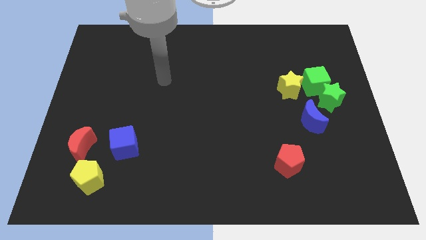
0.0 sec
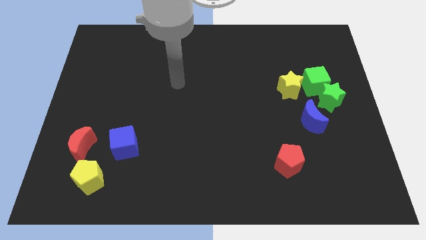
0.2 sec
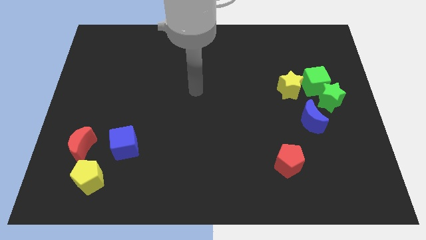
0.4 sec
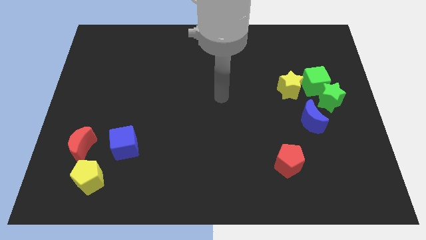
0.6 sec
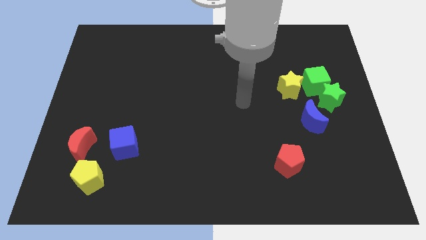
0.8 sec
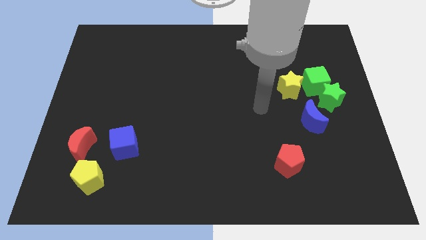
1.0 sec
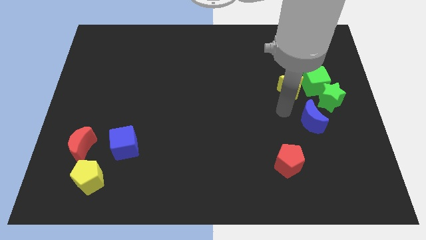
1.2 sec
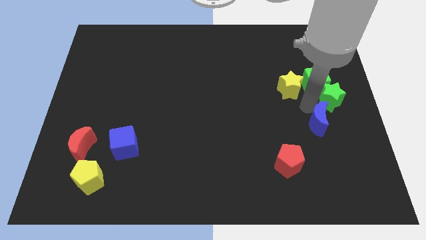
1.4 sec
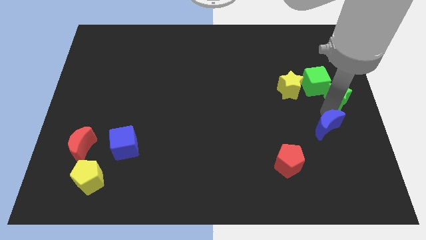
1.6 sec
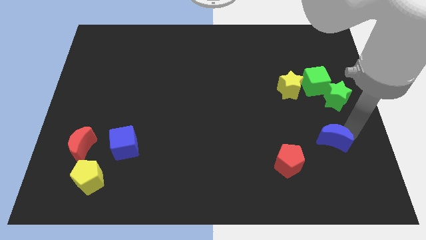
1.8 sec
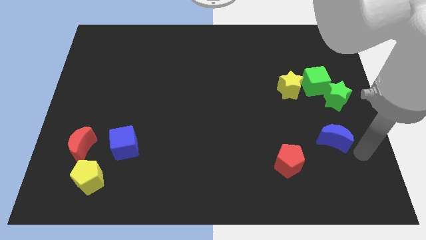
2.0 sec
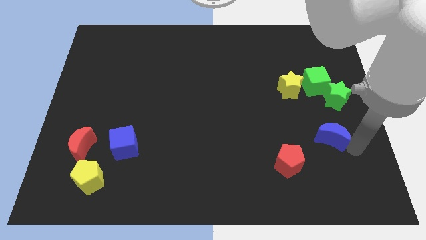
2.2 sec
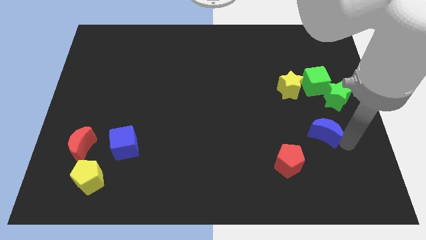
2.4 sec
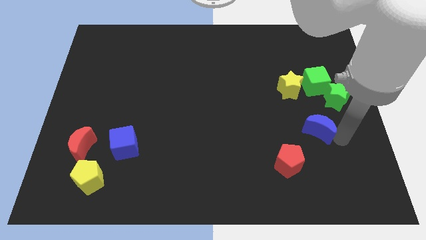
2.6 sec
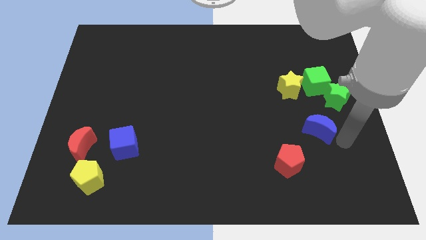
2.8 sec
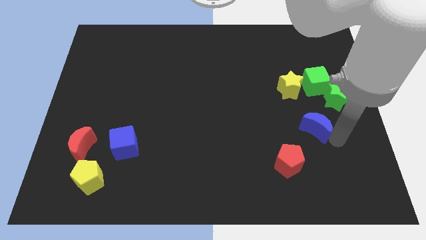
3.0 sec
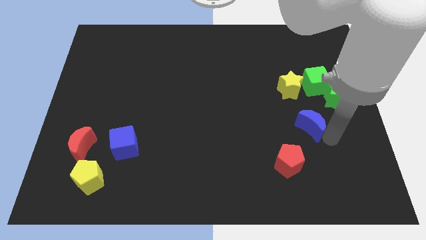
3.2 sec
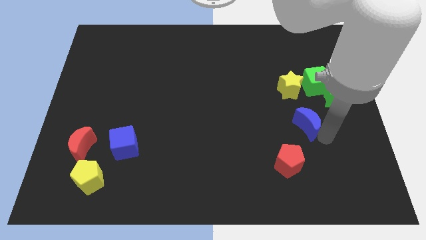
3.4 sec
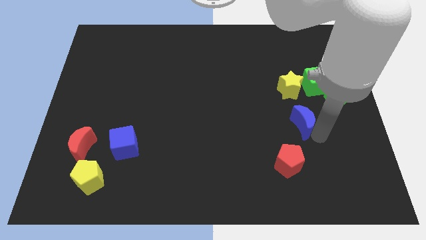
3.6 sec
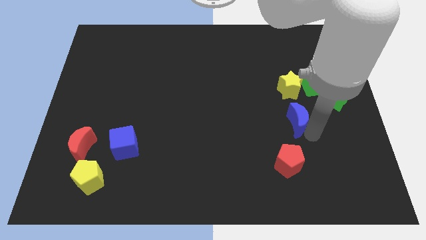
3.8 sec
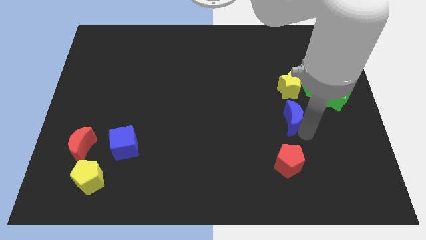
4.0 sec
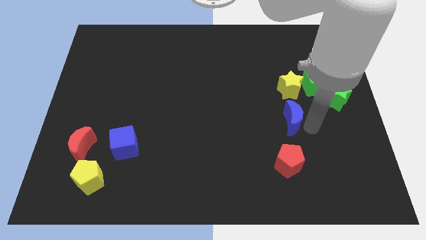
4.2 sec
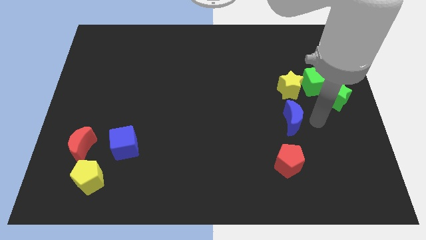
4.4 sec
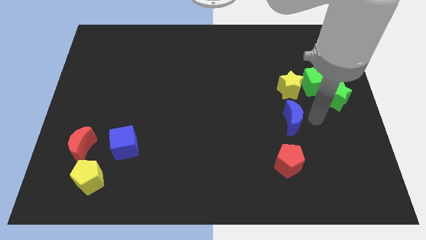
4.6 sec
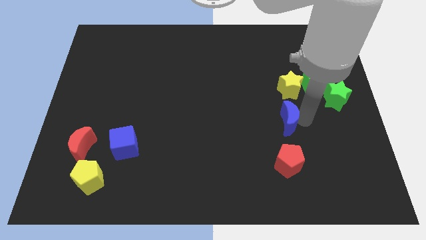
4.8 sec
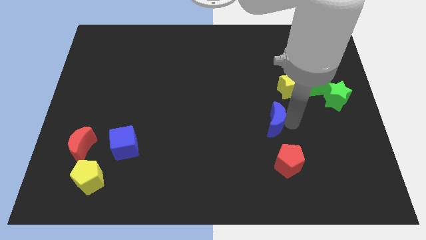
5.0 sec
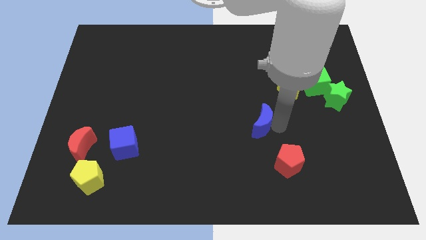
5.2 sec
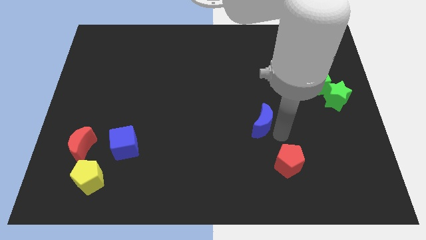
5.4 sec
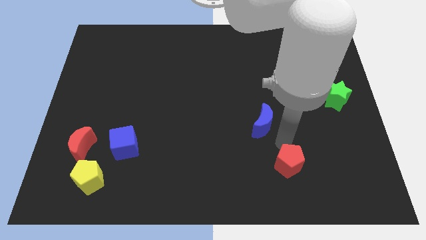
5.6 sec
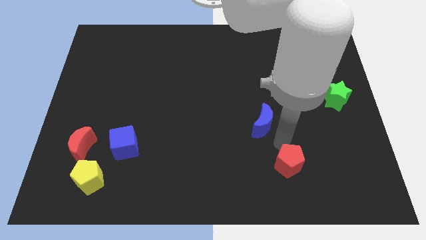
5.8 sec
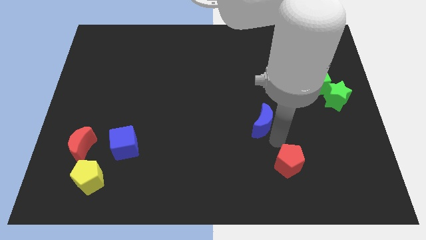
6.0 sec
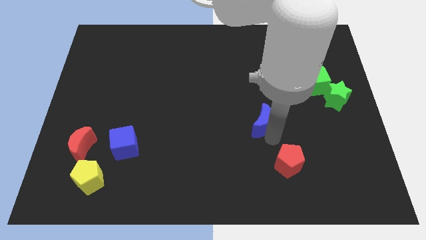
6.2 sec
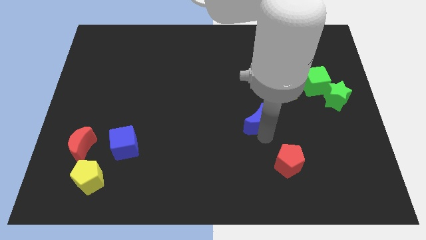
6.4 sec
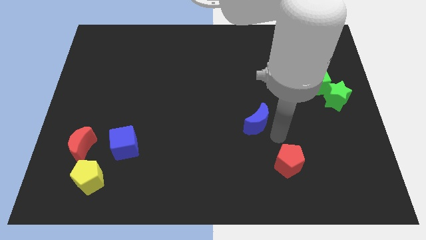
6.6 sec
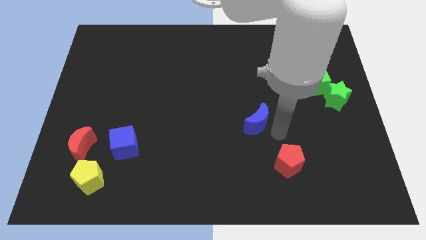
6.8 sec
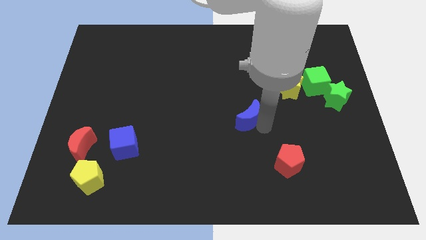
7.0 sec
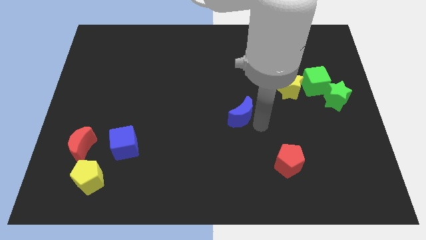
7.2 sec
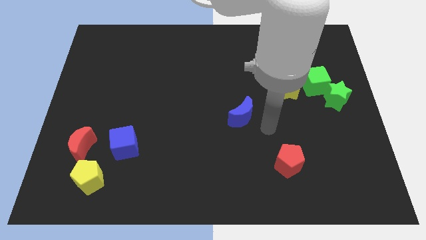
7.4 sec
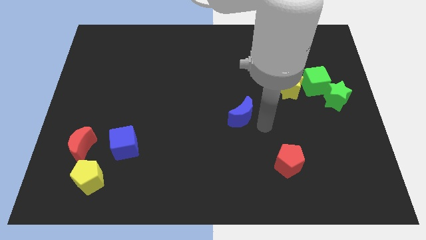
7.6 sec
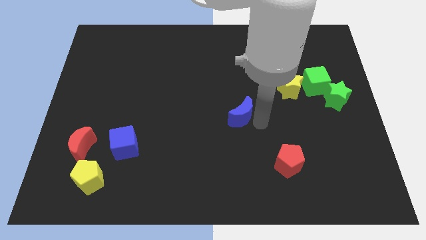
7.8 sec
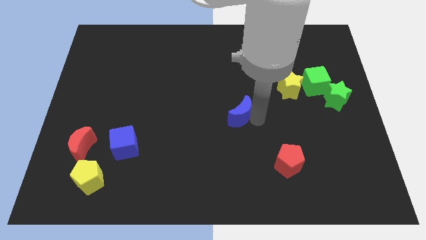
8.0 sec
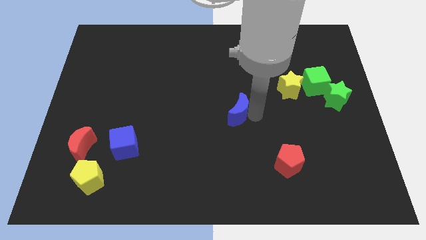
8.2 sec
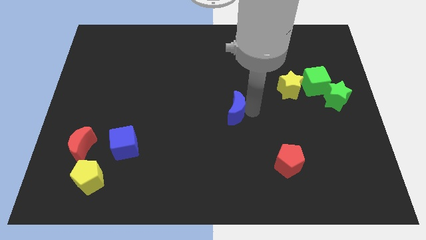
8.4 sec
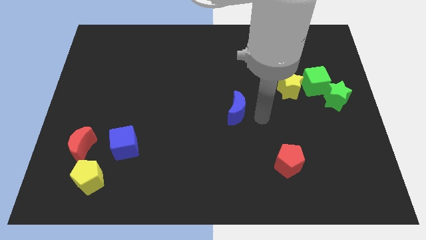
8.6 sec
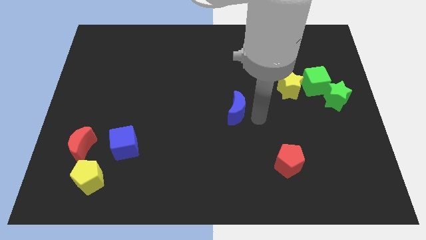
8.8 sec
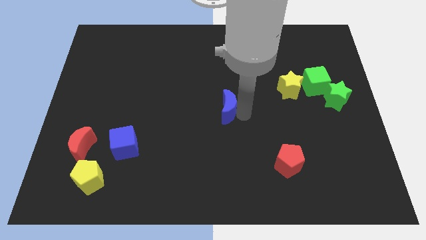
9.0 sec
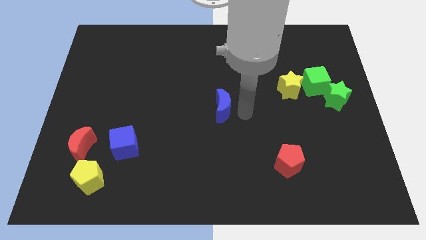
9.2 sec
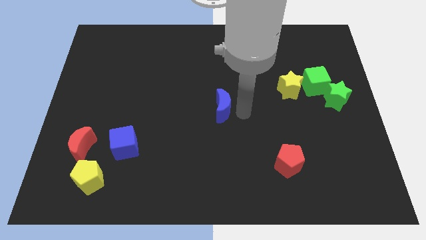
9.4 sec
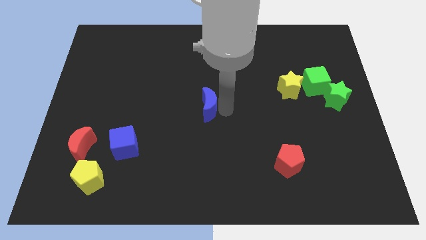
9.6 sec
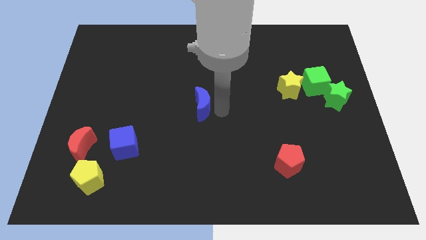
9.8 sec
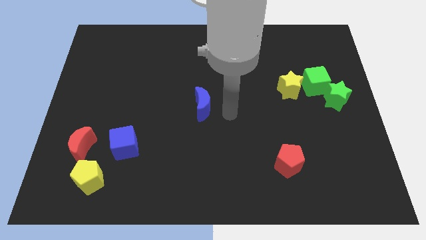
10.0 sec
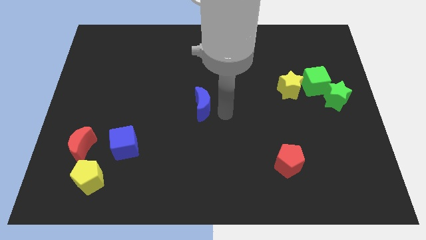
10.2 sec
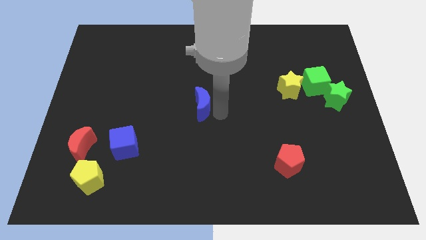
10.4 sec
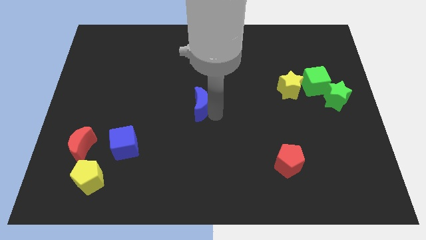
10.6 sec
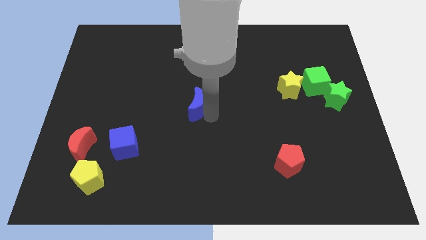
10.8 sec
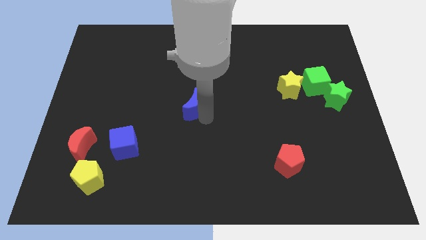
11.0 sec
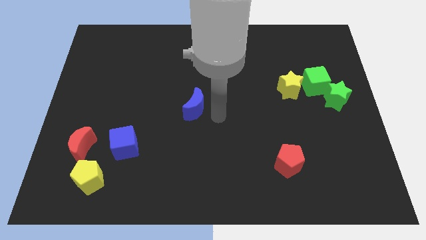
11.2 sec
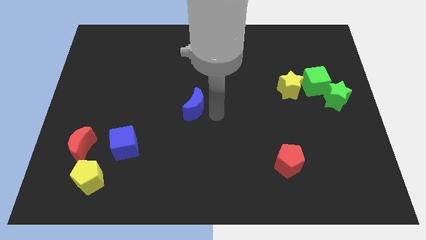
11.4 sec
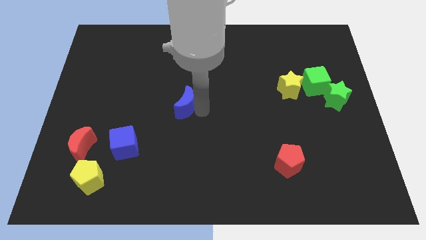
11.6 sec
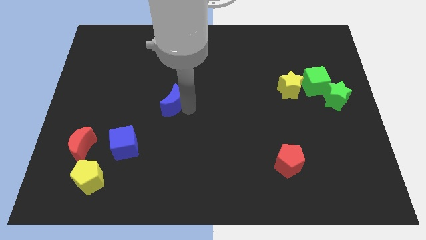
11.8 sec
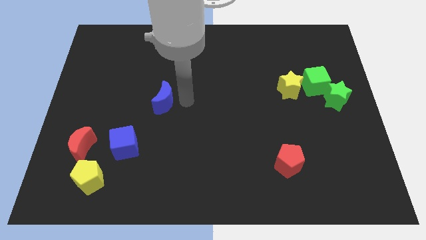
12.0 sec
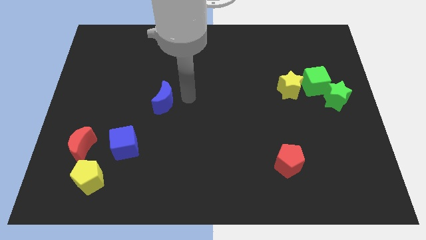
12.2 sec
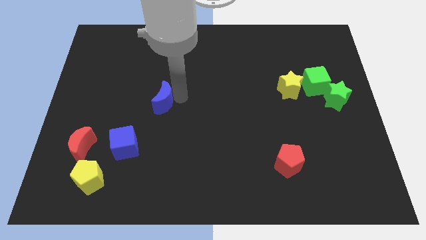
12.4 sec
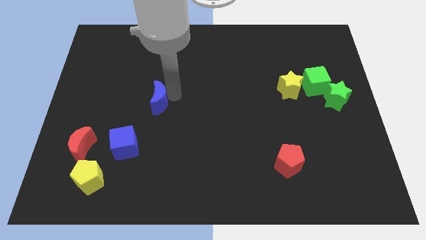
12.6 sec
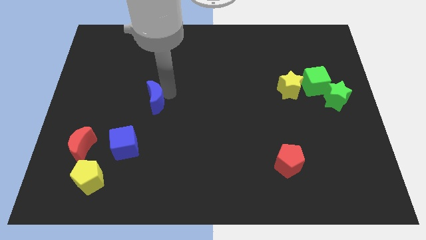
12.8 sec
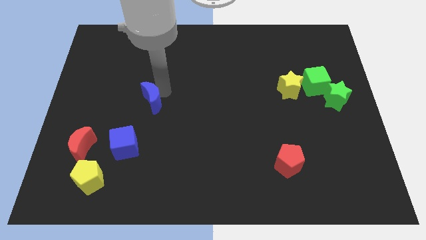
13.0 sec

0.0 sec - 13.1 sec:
push the blue moon to the top of the blue cube

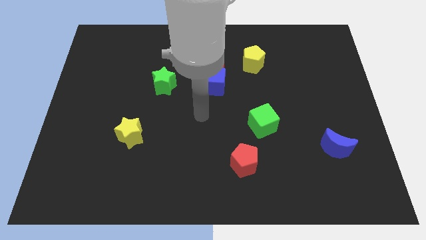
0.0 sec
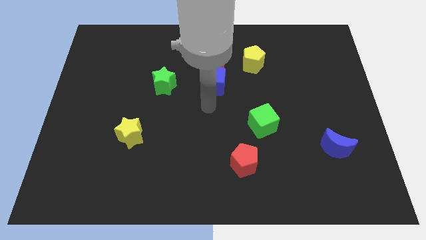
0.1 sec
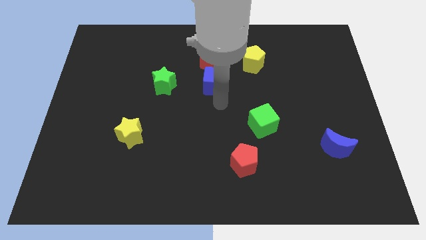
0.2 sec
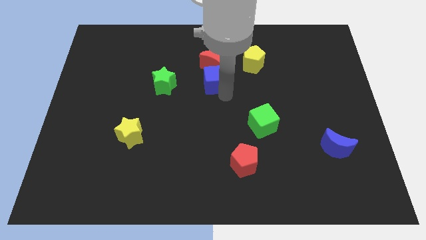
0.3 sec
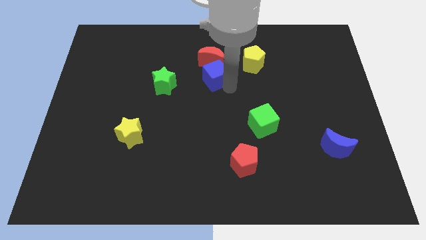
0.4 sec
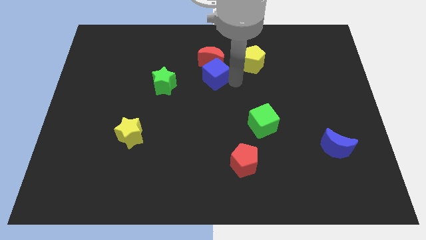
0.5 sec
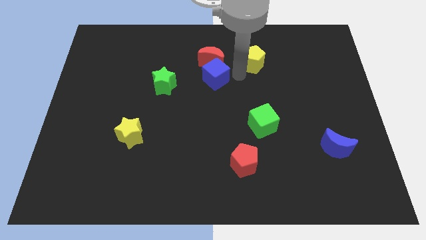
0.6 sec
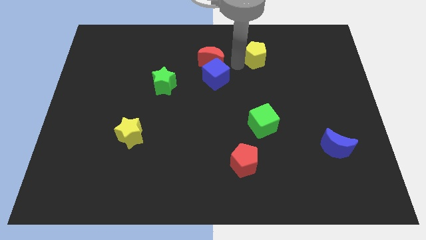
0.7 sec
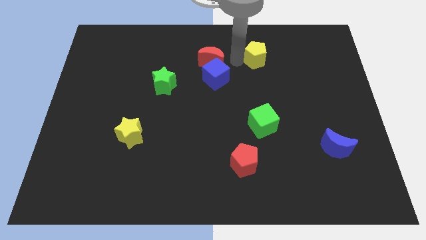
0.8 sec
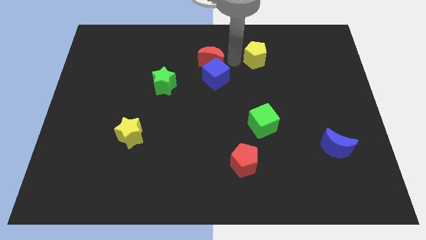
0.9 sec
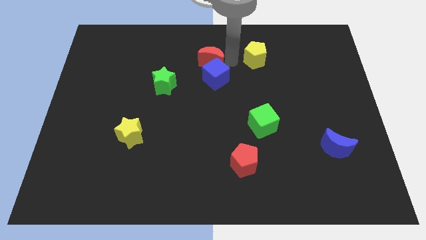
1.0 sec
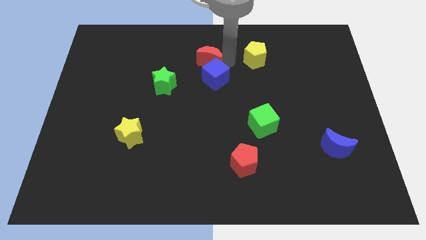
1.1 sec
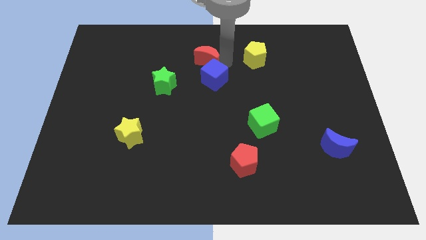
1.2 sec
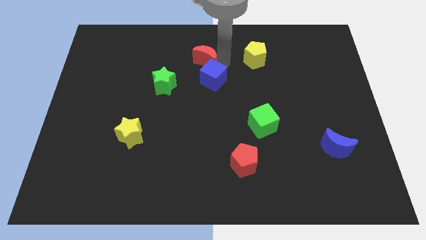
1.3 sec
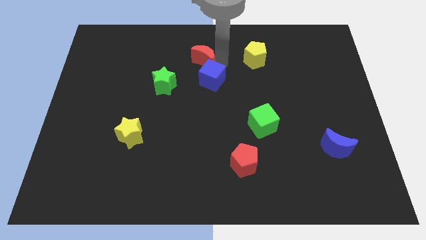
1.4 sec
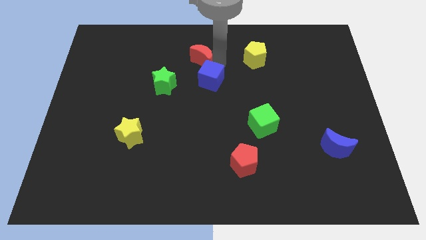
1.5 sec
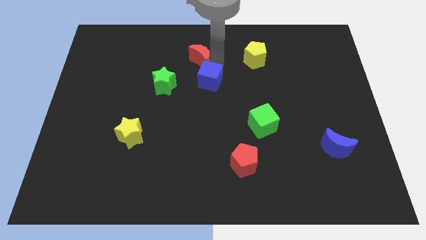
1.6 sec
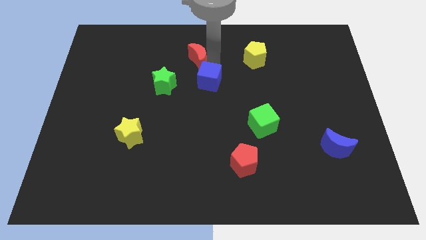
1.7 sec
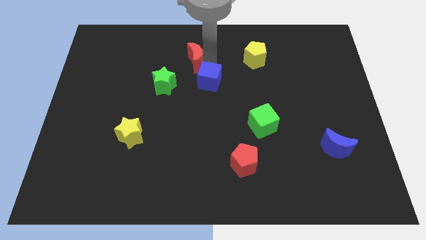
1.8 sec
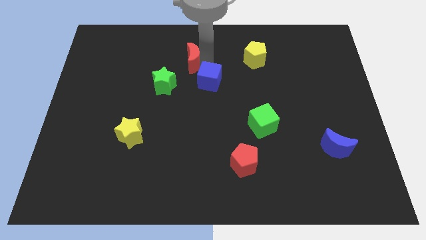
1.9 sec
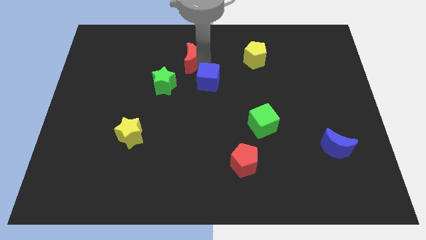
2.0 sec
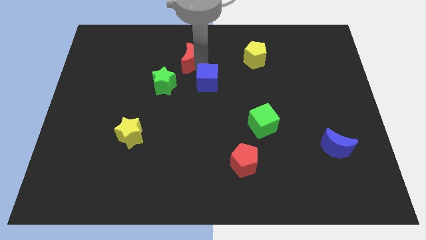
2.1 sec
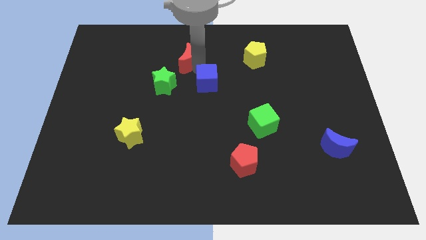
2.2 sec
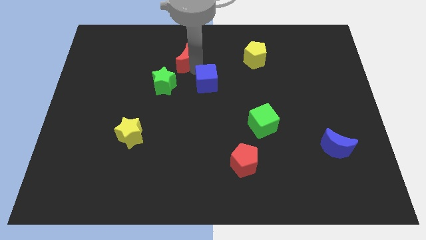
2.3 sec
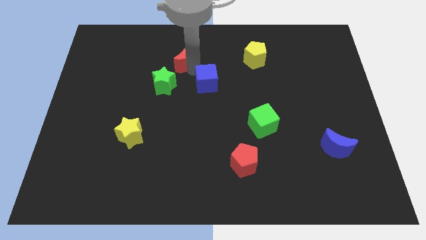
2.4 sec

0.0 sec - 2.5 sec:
push the red moon above the green star
